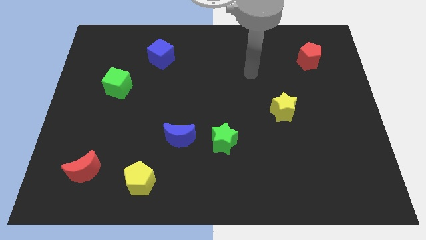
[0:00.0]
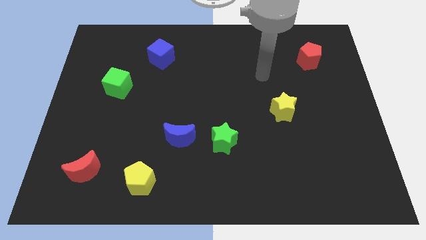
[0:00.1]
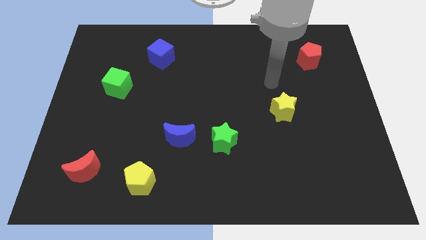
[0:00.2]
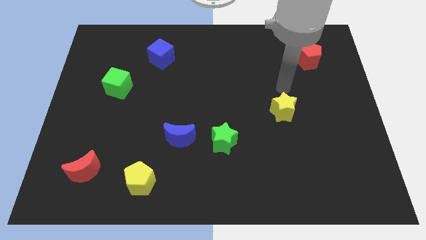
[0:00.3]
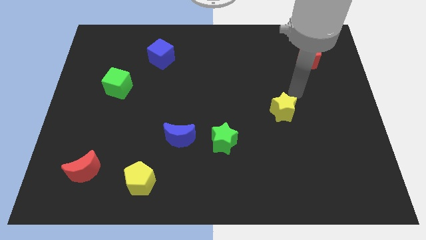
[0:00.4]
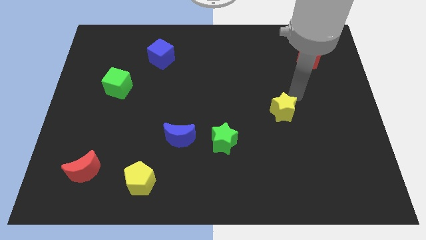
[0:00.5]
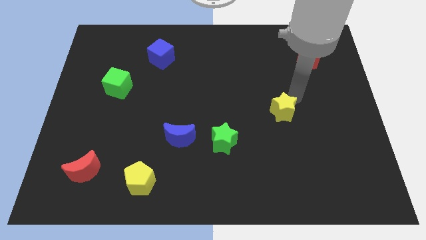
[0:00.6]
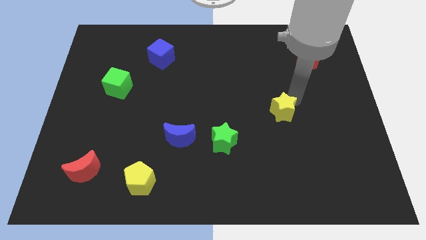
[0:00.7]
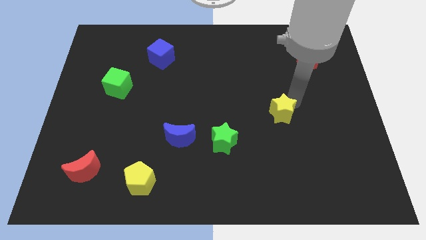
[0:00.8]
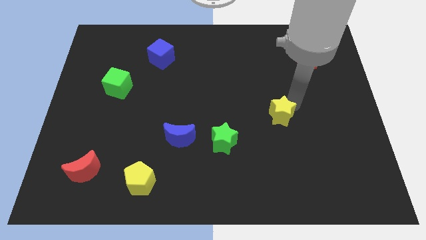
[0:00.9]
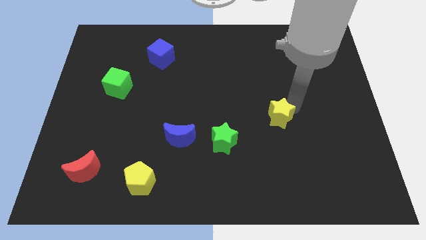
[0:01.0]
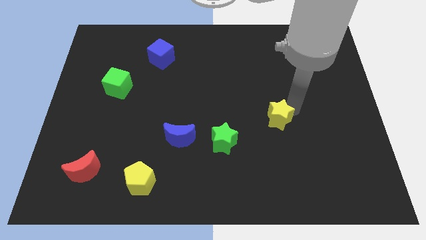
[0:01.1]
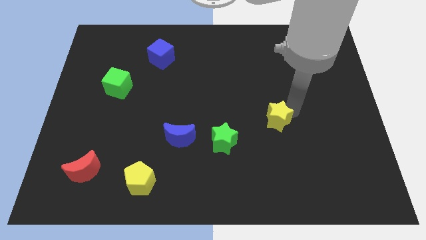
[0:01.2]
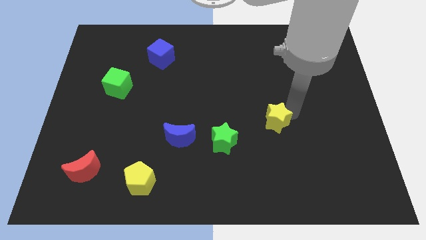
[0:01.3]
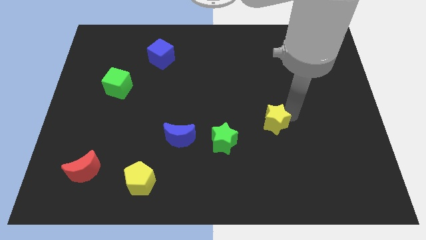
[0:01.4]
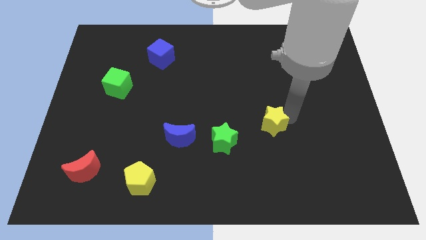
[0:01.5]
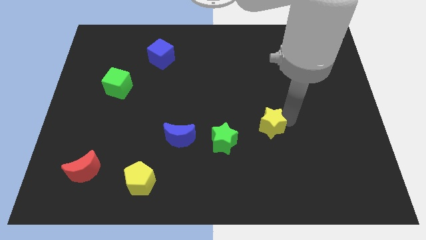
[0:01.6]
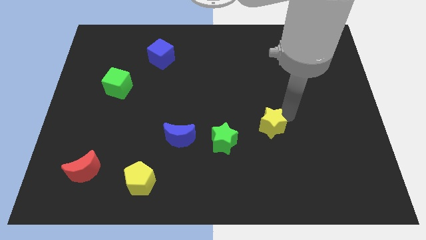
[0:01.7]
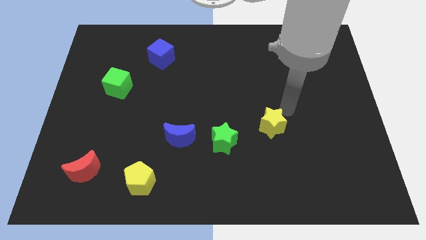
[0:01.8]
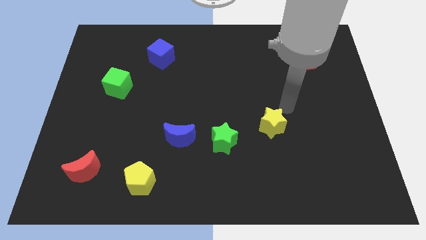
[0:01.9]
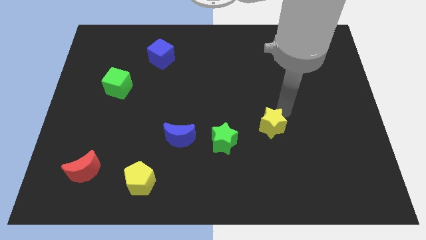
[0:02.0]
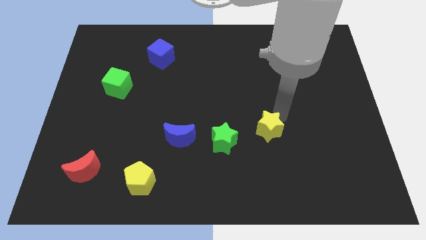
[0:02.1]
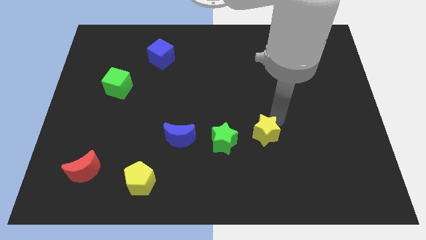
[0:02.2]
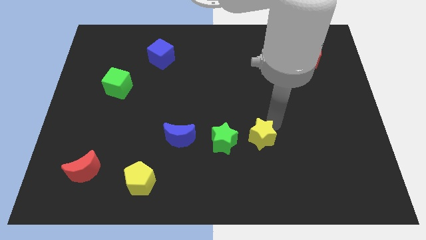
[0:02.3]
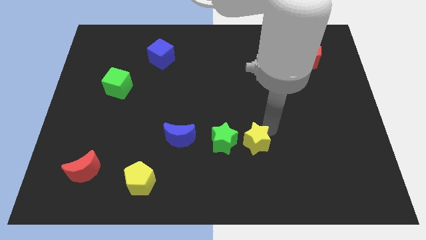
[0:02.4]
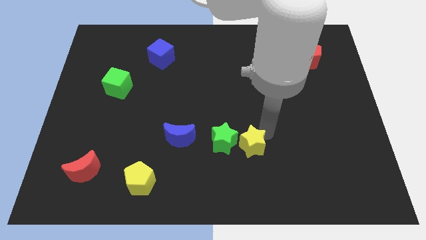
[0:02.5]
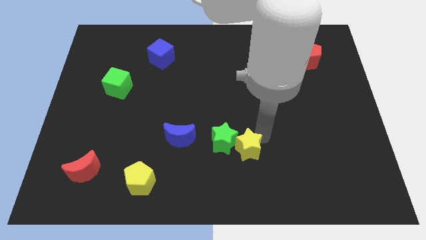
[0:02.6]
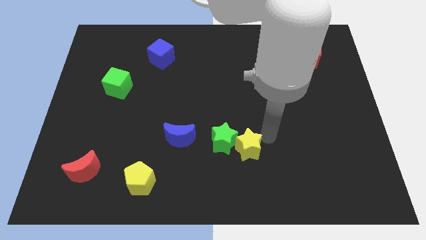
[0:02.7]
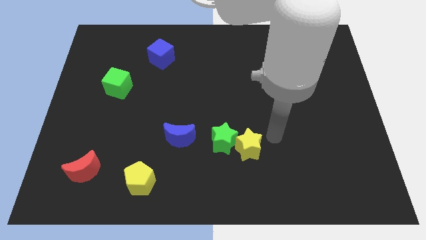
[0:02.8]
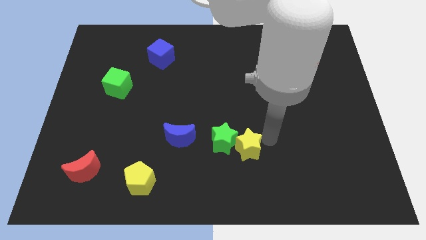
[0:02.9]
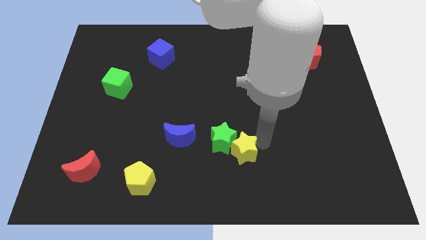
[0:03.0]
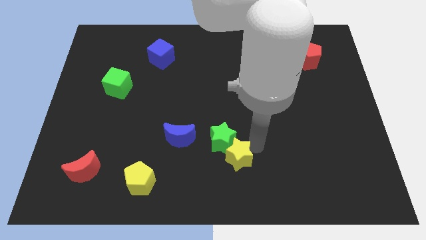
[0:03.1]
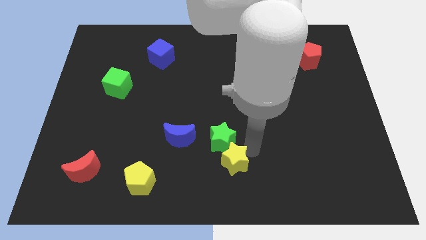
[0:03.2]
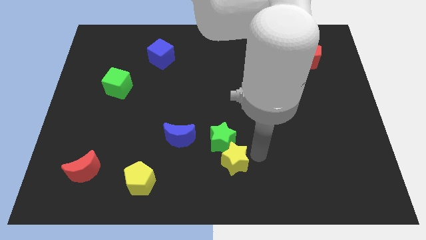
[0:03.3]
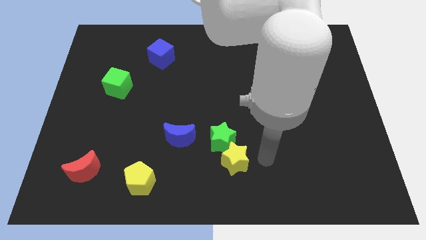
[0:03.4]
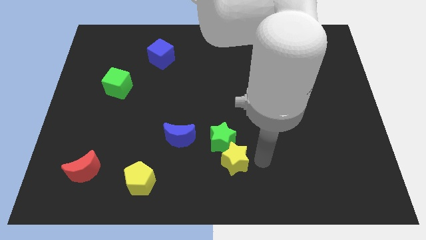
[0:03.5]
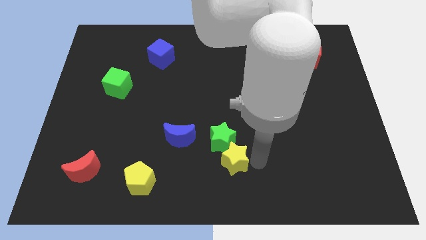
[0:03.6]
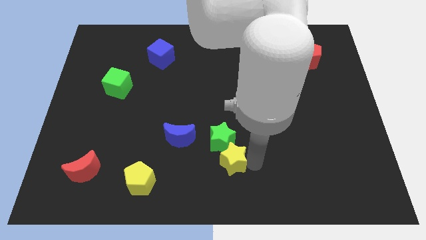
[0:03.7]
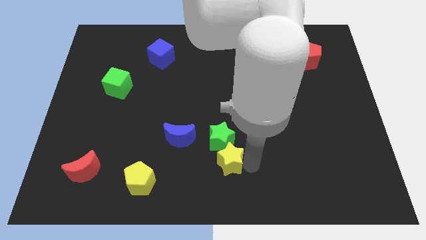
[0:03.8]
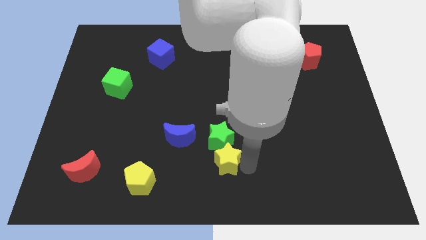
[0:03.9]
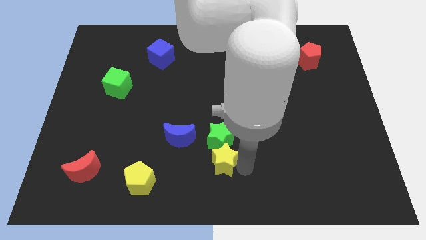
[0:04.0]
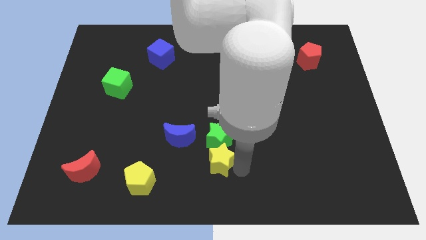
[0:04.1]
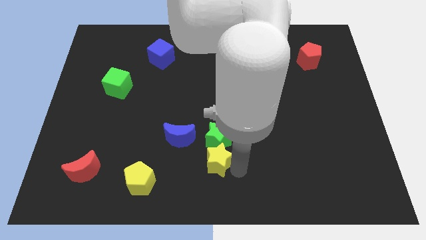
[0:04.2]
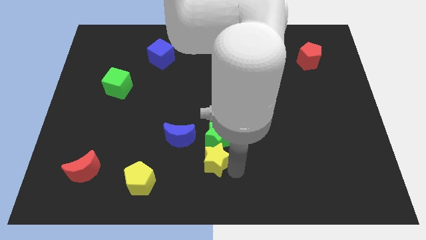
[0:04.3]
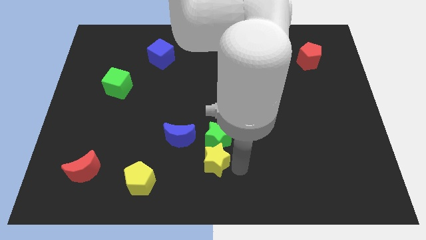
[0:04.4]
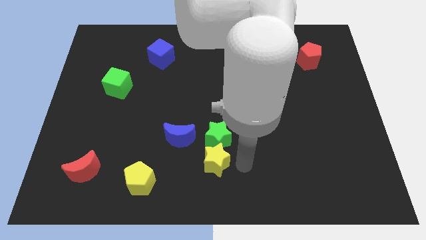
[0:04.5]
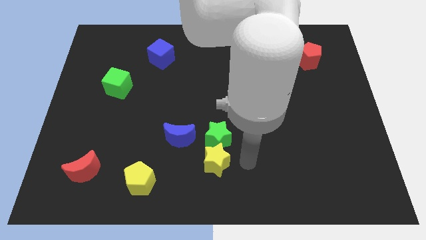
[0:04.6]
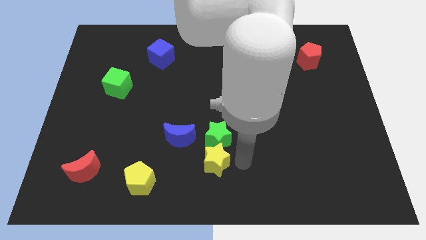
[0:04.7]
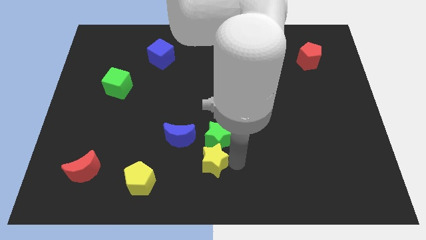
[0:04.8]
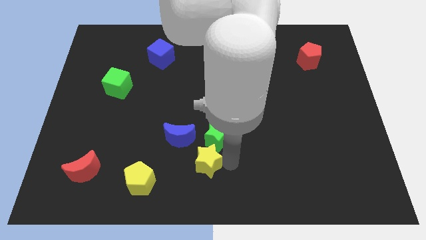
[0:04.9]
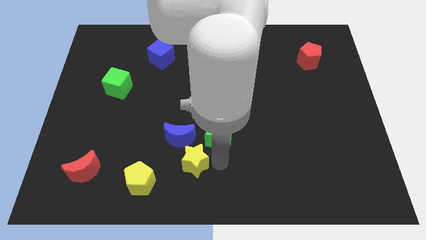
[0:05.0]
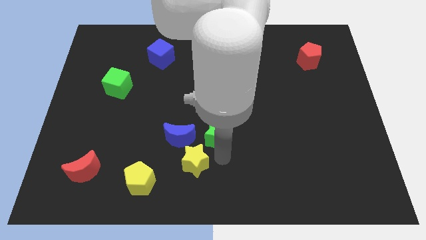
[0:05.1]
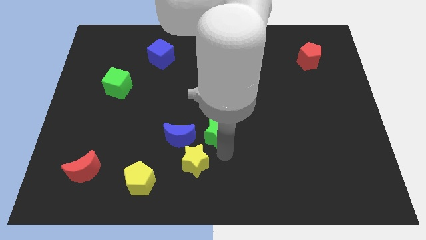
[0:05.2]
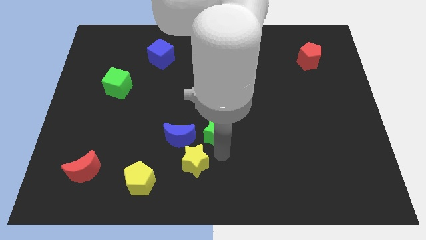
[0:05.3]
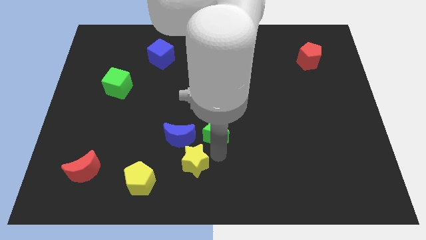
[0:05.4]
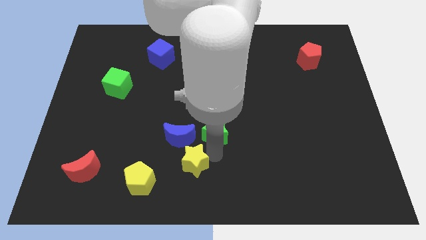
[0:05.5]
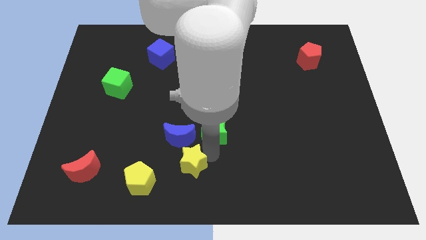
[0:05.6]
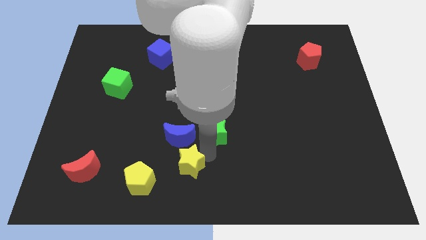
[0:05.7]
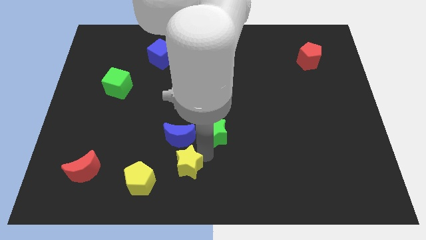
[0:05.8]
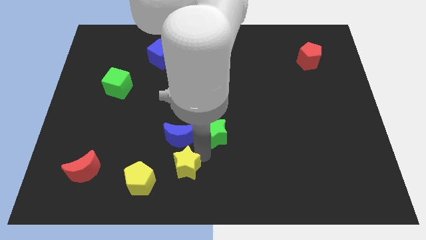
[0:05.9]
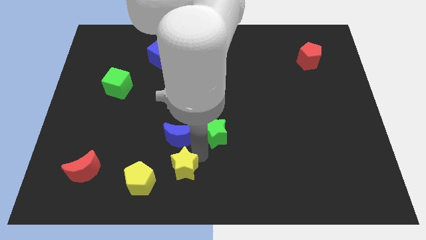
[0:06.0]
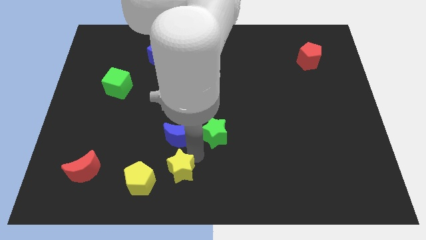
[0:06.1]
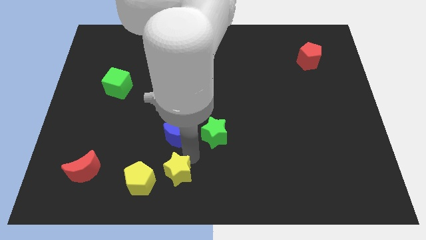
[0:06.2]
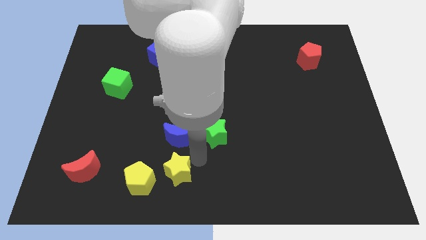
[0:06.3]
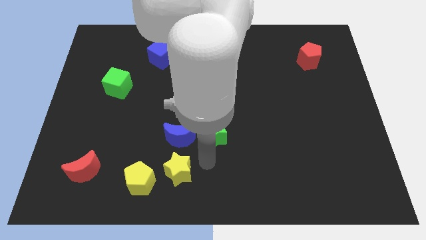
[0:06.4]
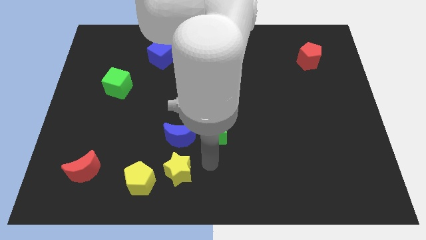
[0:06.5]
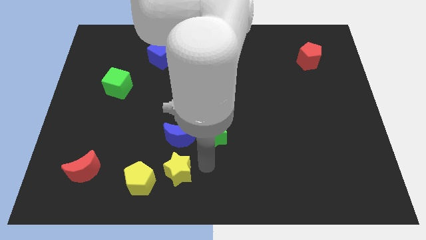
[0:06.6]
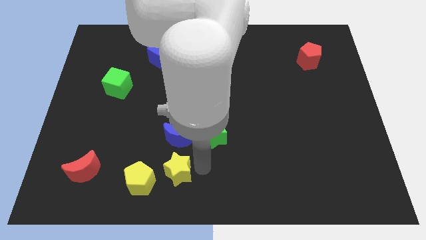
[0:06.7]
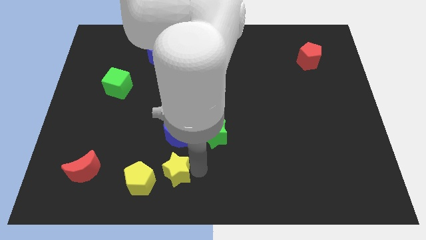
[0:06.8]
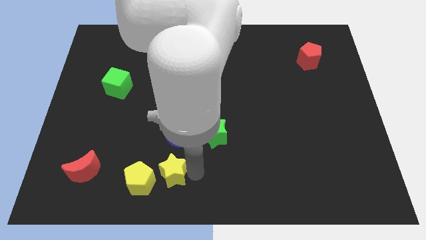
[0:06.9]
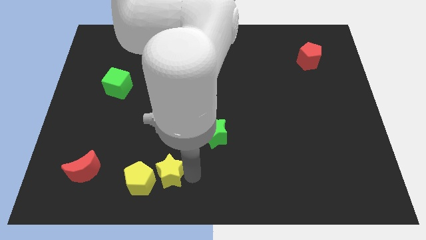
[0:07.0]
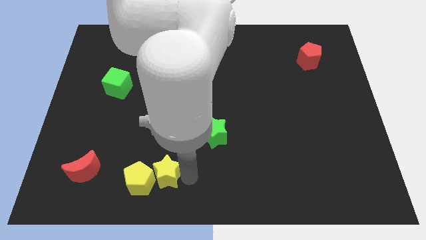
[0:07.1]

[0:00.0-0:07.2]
push the yellow star next to the yellow pentagon
